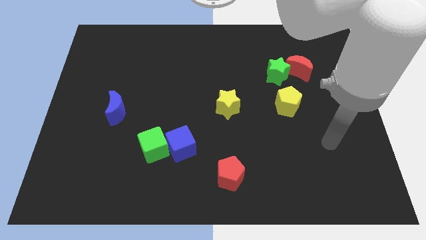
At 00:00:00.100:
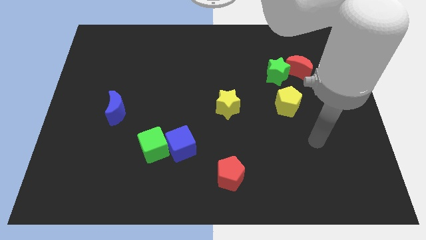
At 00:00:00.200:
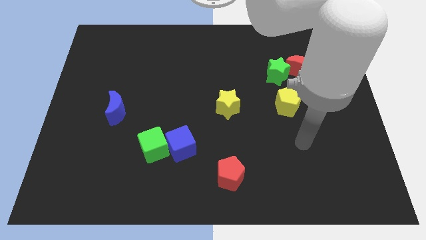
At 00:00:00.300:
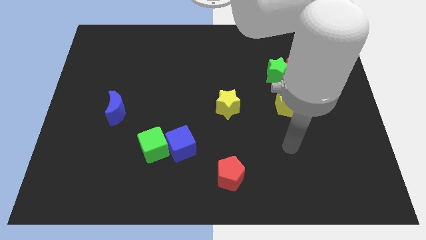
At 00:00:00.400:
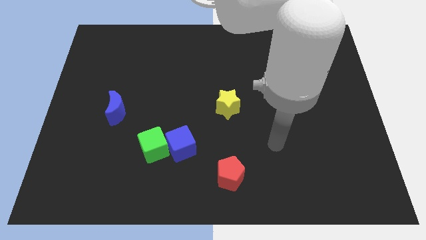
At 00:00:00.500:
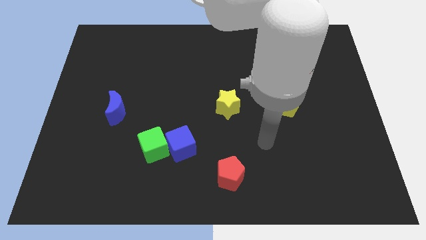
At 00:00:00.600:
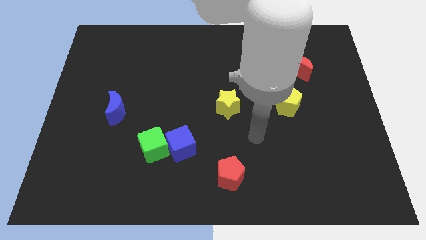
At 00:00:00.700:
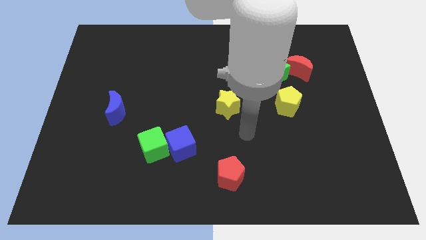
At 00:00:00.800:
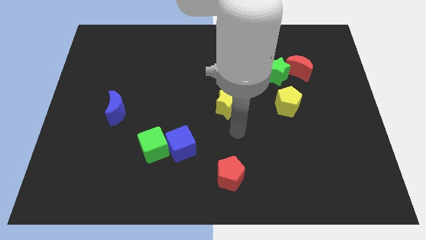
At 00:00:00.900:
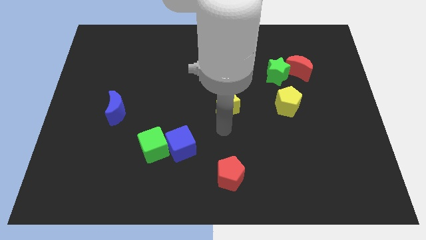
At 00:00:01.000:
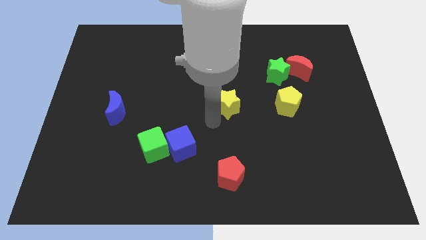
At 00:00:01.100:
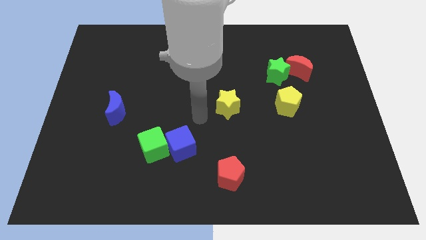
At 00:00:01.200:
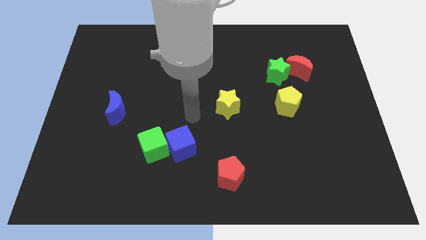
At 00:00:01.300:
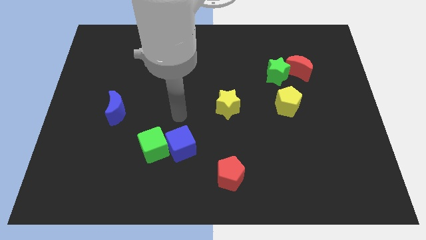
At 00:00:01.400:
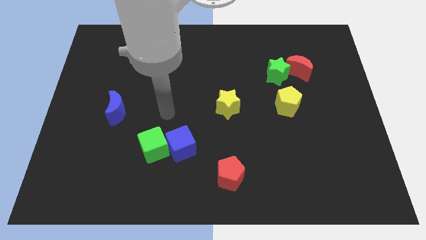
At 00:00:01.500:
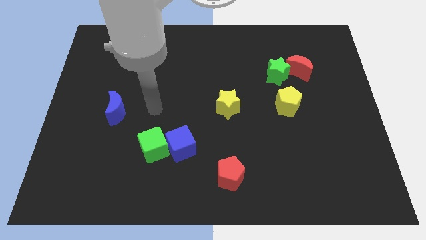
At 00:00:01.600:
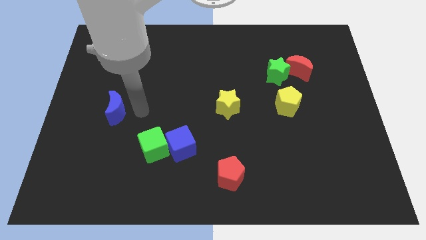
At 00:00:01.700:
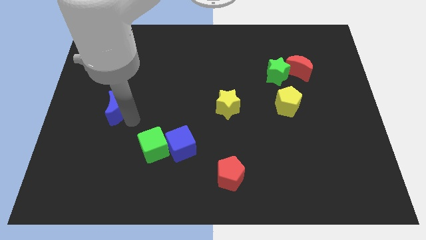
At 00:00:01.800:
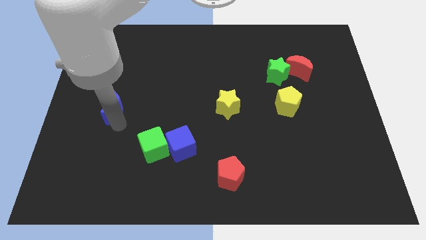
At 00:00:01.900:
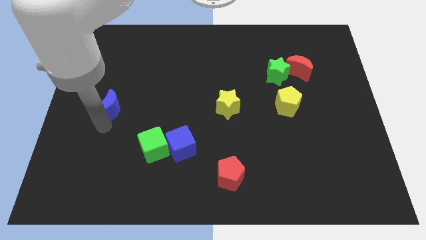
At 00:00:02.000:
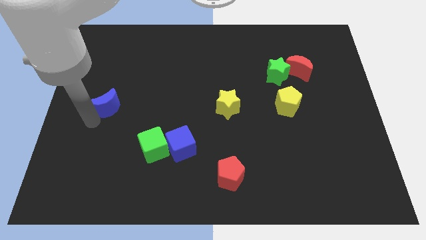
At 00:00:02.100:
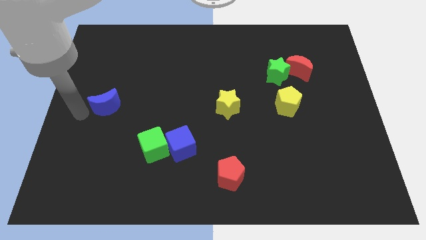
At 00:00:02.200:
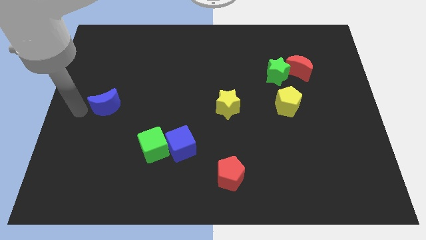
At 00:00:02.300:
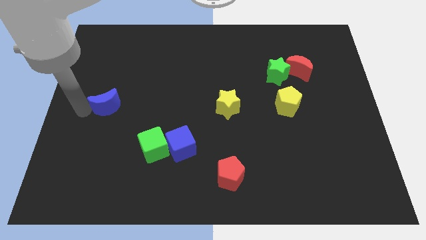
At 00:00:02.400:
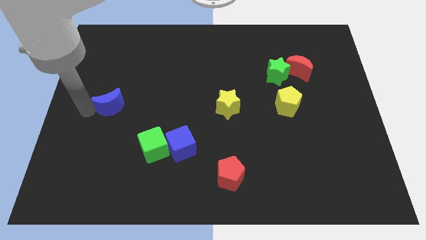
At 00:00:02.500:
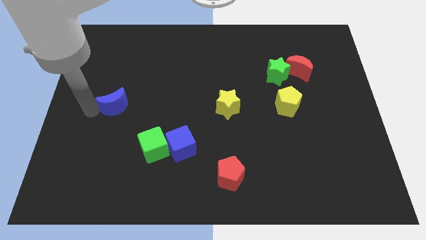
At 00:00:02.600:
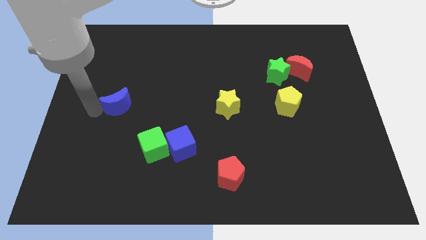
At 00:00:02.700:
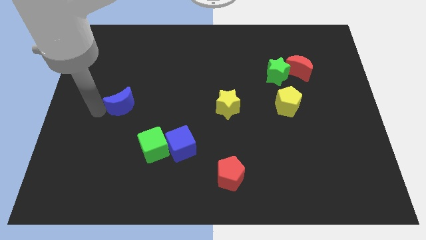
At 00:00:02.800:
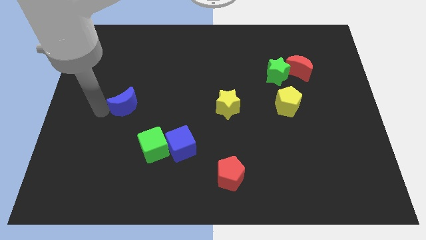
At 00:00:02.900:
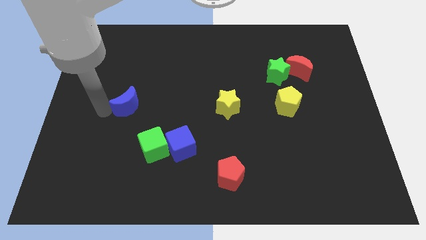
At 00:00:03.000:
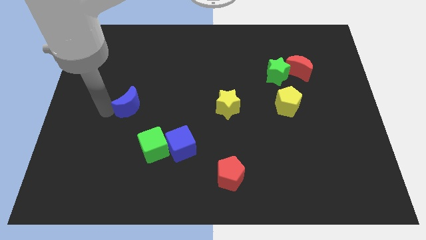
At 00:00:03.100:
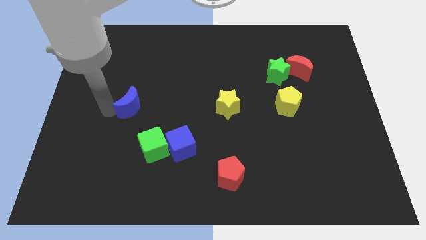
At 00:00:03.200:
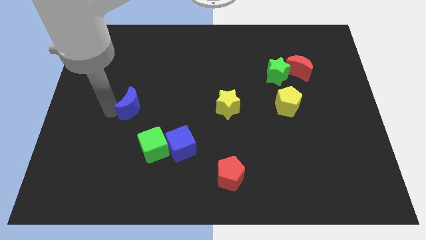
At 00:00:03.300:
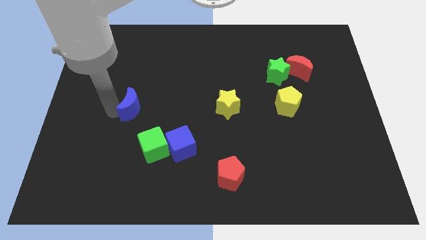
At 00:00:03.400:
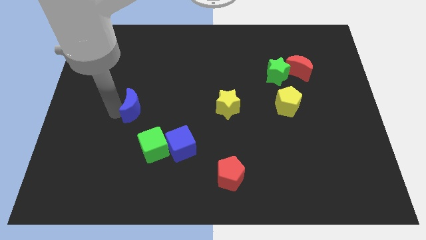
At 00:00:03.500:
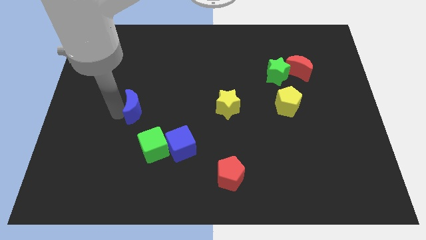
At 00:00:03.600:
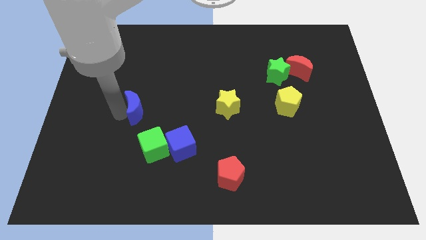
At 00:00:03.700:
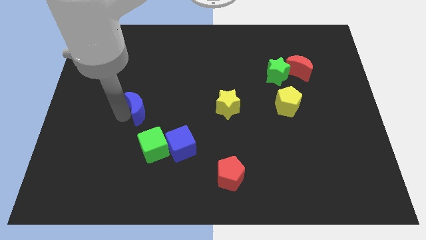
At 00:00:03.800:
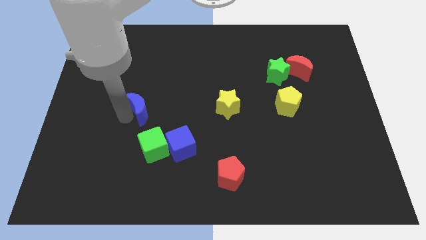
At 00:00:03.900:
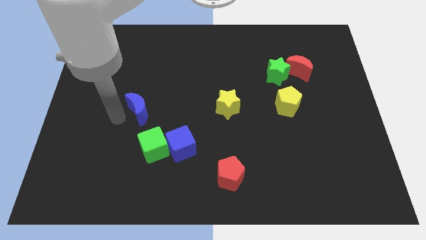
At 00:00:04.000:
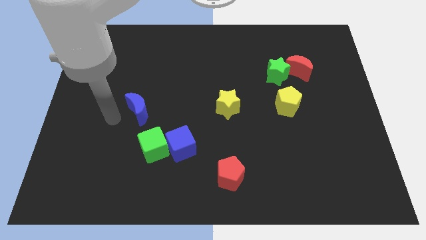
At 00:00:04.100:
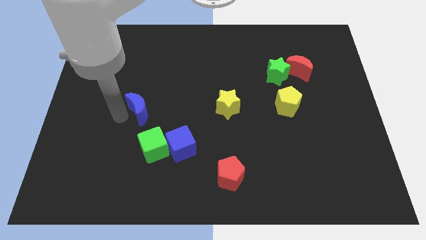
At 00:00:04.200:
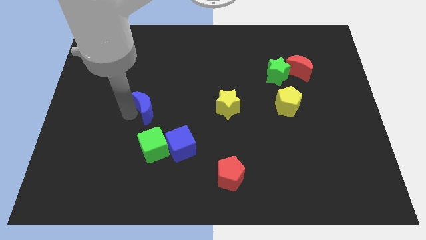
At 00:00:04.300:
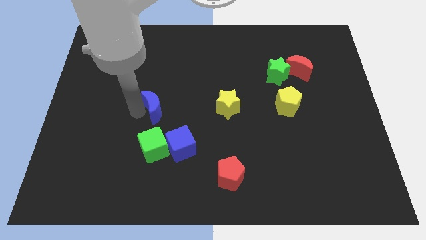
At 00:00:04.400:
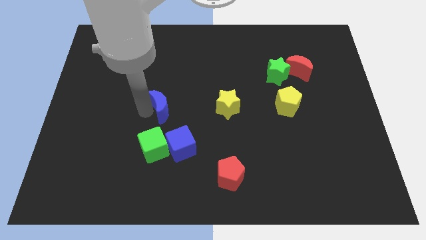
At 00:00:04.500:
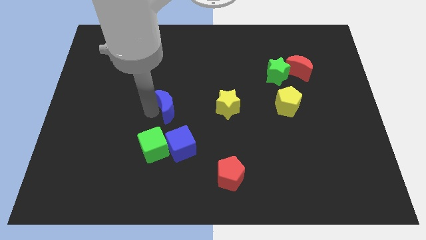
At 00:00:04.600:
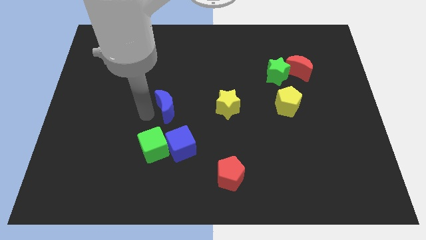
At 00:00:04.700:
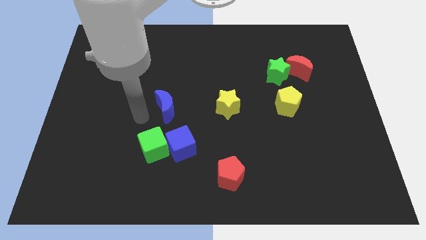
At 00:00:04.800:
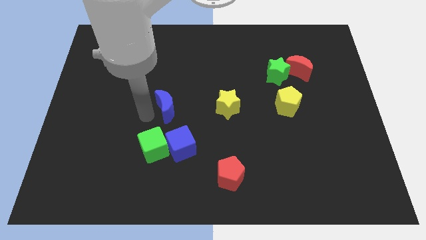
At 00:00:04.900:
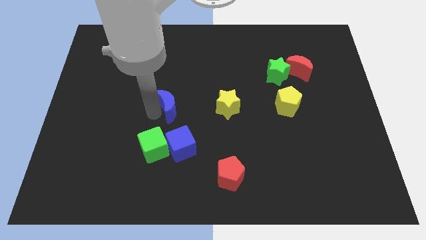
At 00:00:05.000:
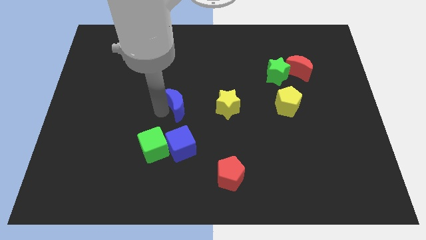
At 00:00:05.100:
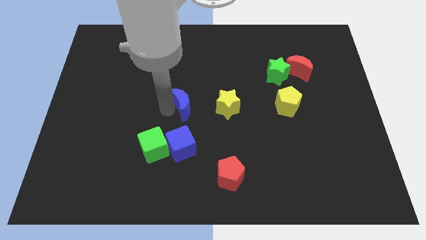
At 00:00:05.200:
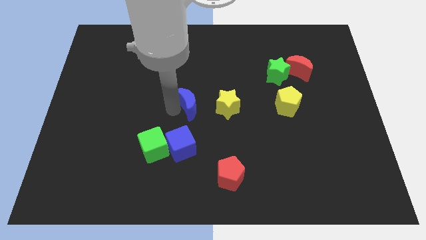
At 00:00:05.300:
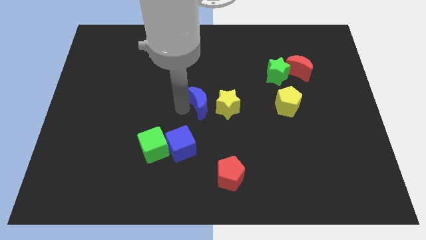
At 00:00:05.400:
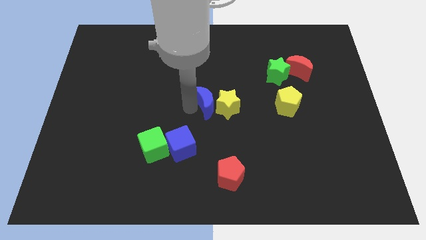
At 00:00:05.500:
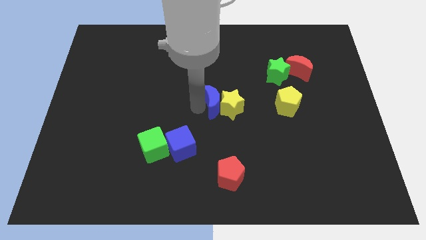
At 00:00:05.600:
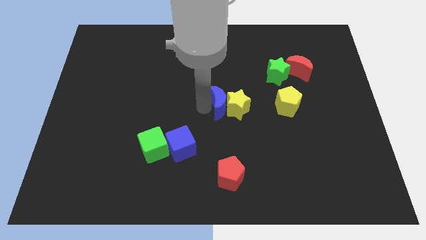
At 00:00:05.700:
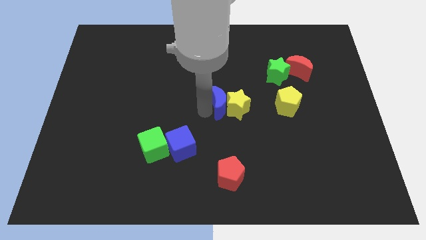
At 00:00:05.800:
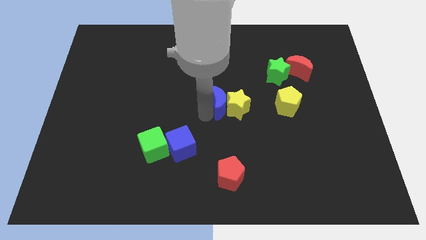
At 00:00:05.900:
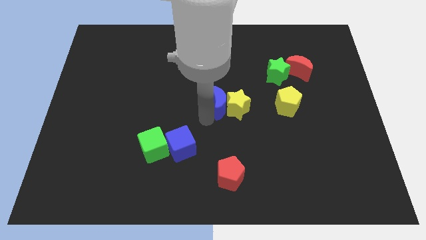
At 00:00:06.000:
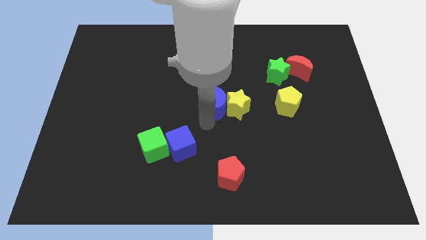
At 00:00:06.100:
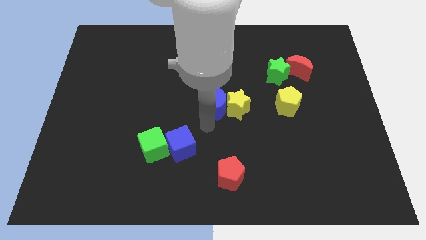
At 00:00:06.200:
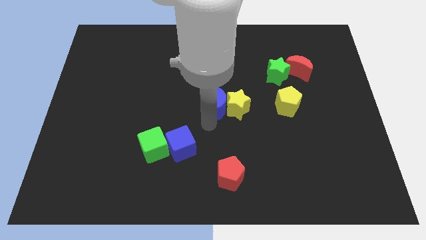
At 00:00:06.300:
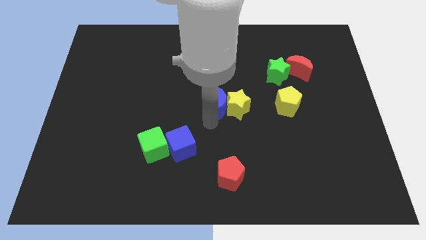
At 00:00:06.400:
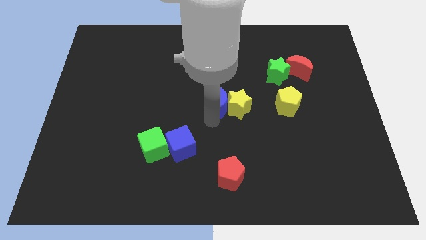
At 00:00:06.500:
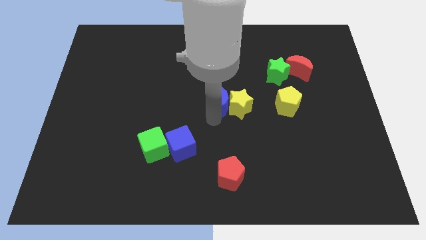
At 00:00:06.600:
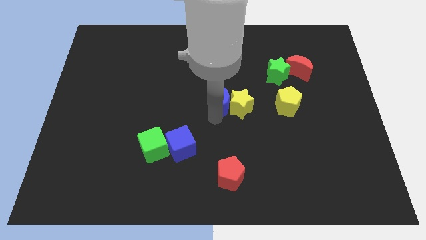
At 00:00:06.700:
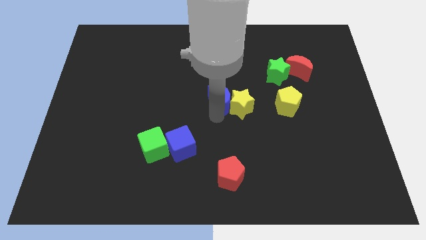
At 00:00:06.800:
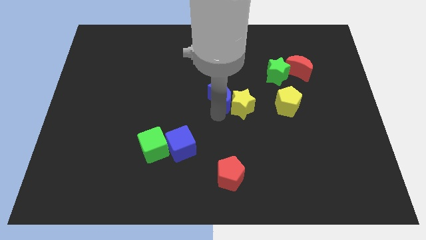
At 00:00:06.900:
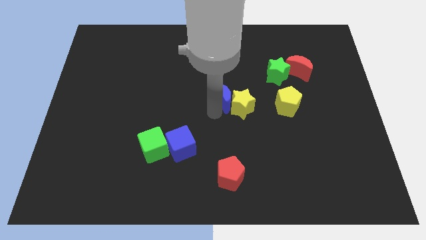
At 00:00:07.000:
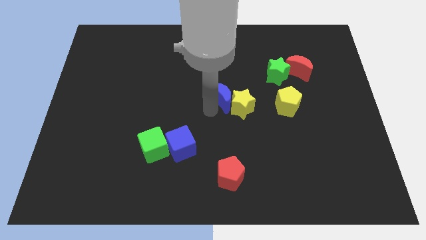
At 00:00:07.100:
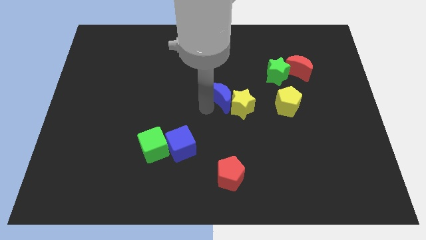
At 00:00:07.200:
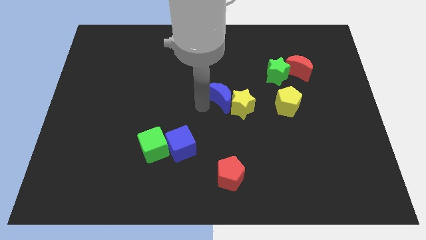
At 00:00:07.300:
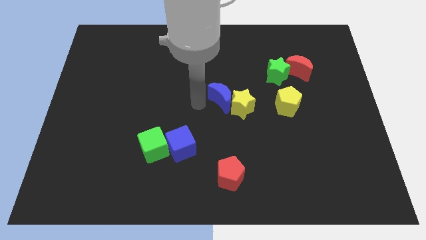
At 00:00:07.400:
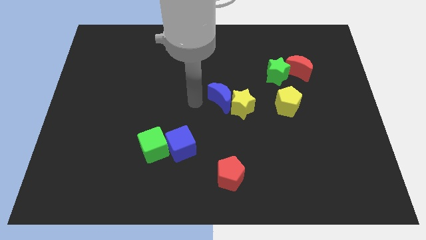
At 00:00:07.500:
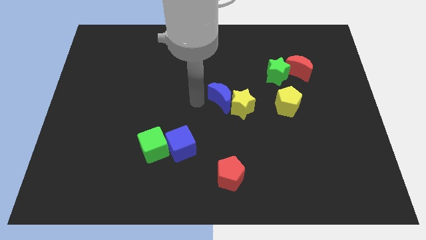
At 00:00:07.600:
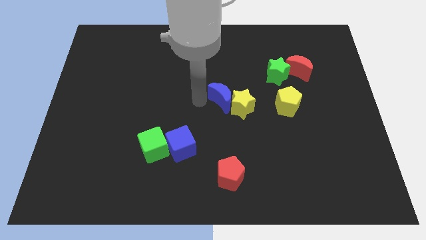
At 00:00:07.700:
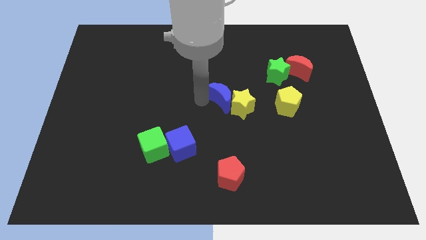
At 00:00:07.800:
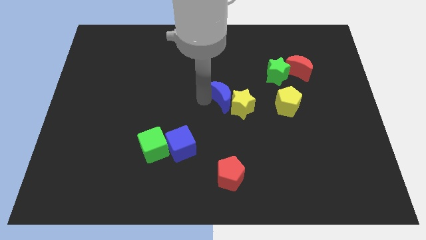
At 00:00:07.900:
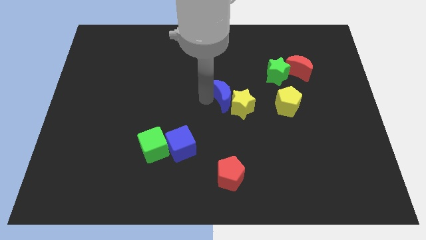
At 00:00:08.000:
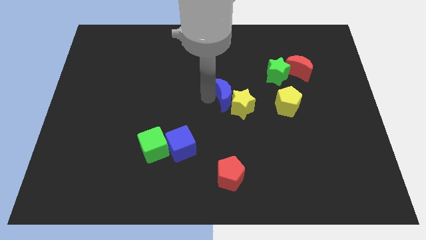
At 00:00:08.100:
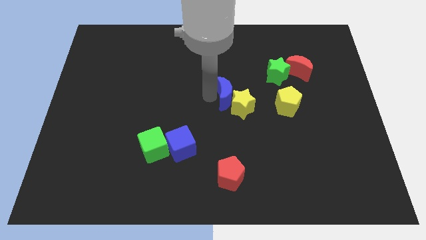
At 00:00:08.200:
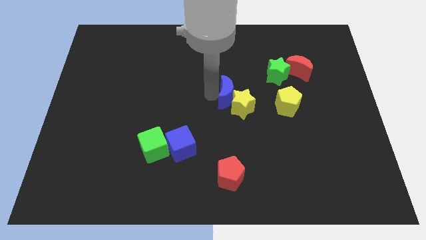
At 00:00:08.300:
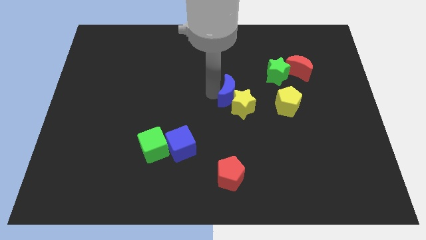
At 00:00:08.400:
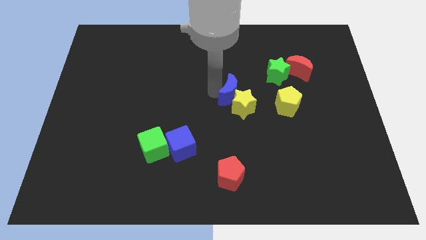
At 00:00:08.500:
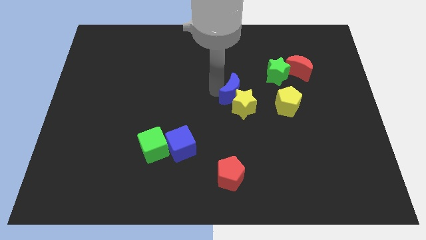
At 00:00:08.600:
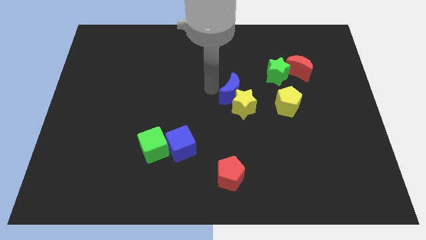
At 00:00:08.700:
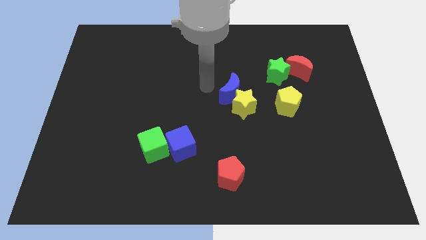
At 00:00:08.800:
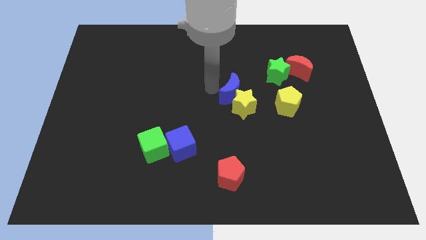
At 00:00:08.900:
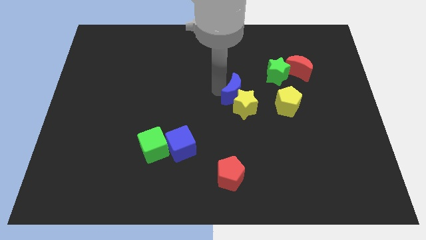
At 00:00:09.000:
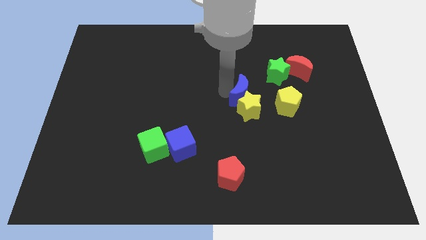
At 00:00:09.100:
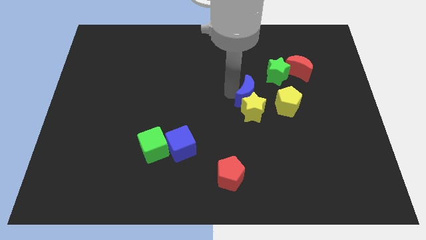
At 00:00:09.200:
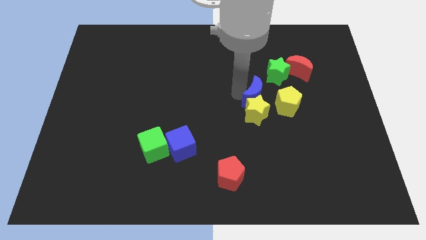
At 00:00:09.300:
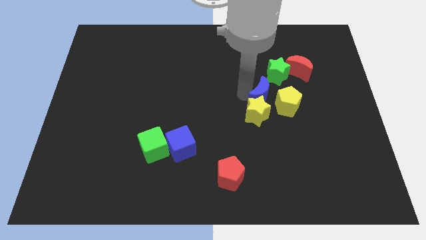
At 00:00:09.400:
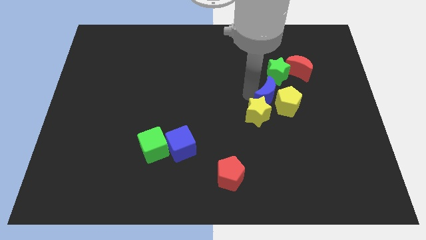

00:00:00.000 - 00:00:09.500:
put the blue moon towards the yellow pentagon
